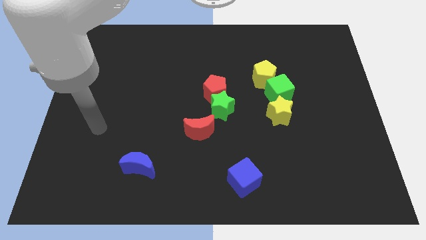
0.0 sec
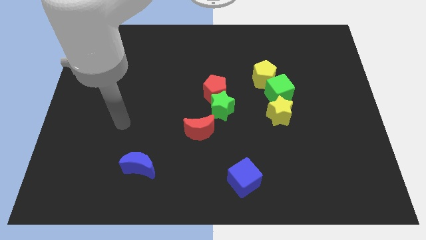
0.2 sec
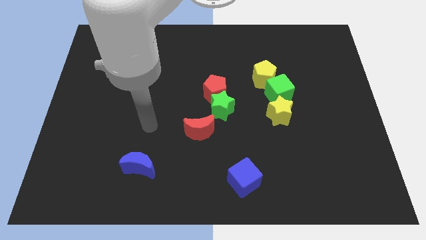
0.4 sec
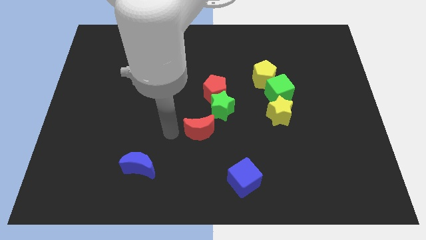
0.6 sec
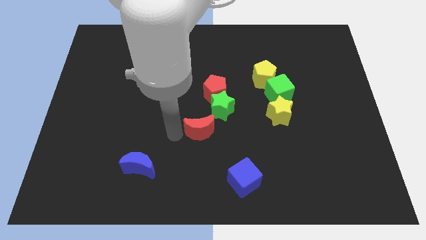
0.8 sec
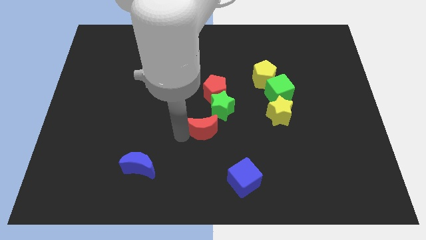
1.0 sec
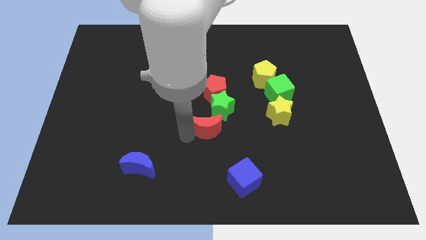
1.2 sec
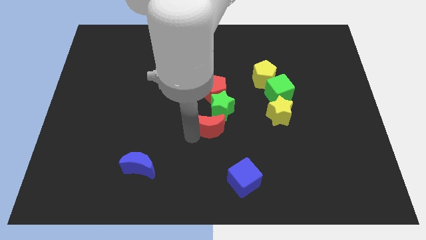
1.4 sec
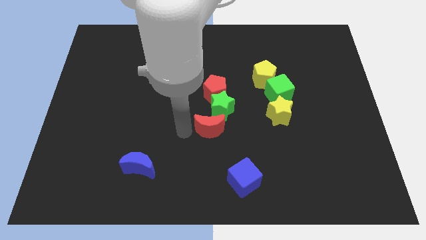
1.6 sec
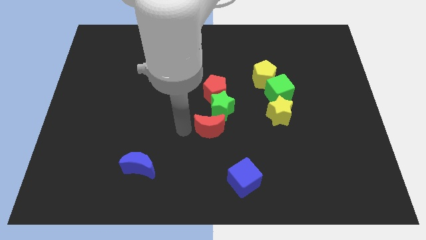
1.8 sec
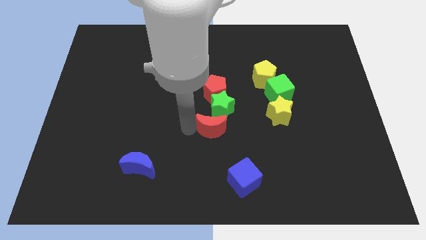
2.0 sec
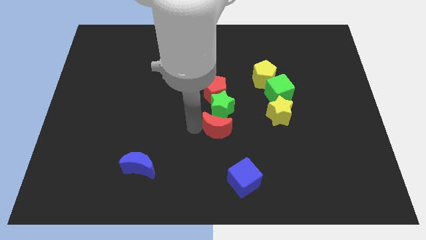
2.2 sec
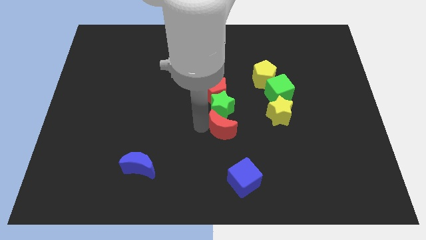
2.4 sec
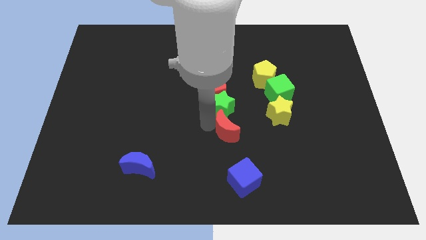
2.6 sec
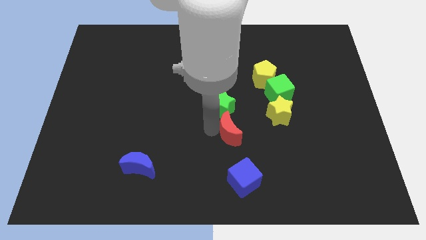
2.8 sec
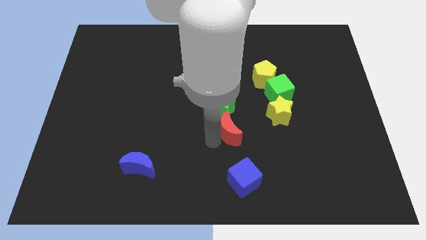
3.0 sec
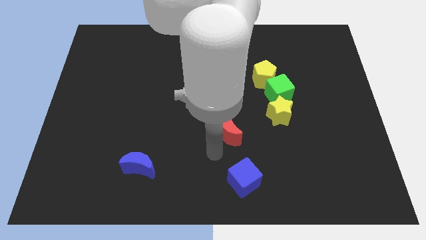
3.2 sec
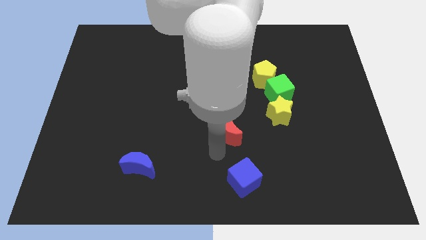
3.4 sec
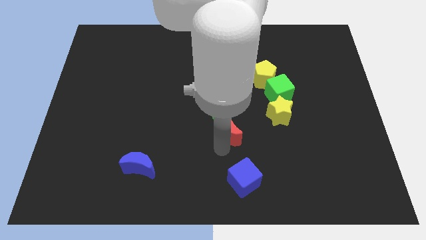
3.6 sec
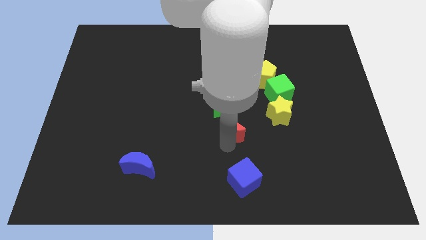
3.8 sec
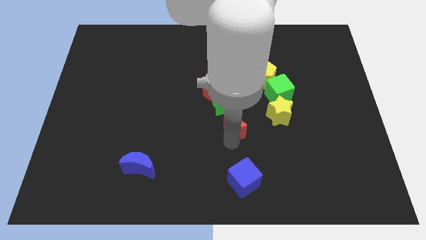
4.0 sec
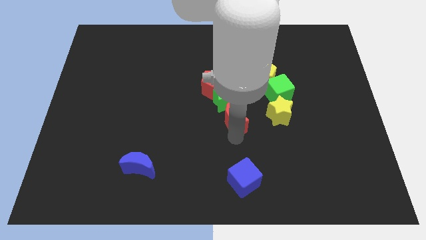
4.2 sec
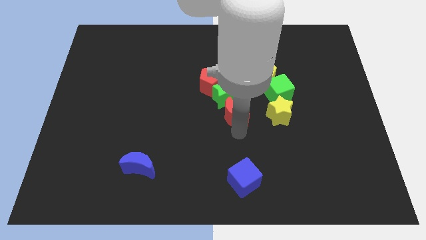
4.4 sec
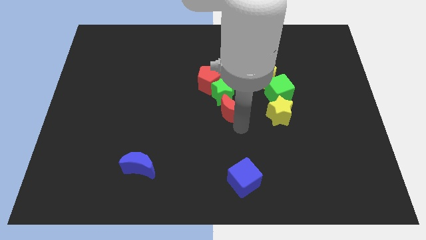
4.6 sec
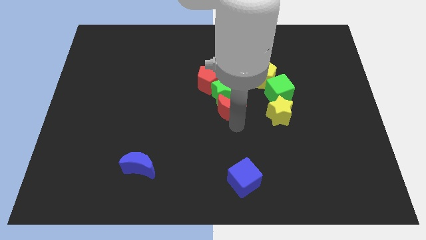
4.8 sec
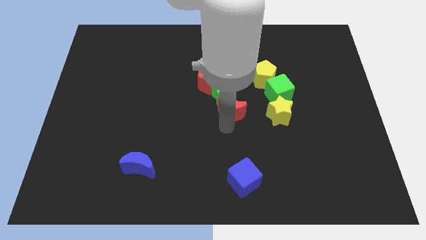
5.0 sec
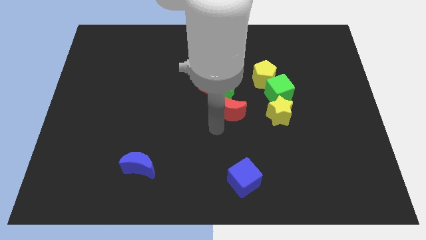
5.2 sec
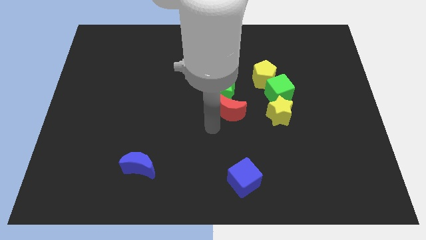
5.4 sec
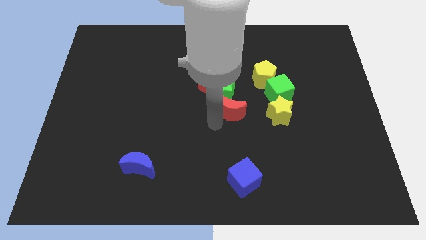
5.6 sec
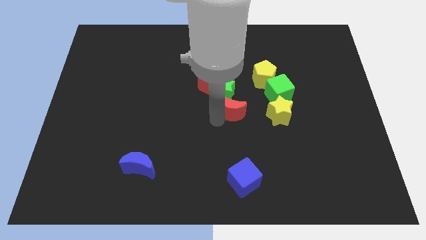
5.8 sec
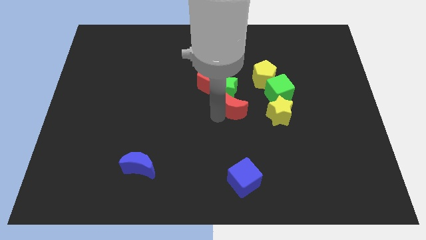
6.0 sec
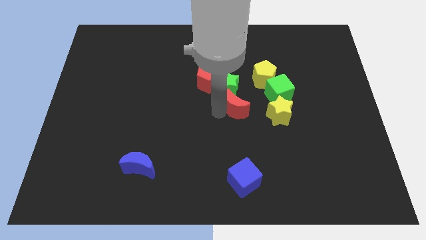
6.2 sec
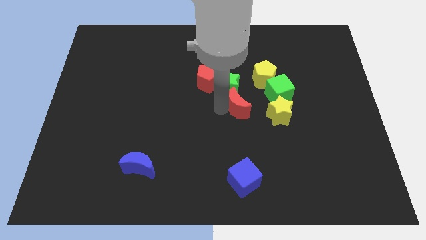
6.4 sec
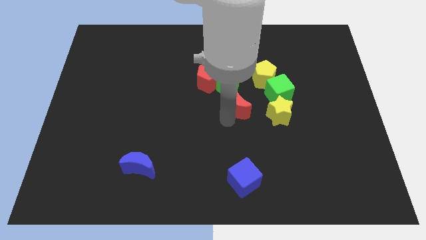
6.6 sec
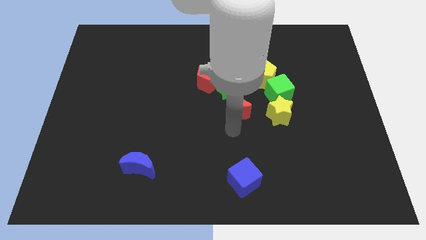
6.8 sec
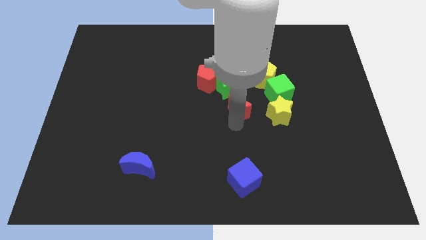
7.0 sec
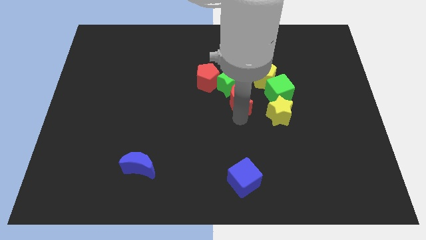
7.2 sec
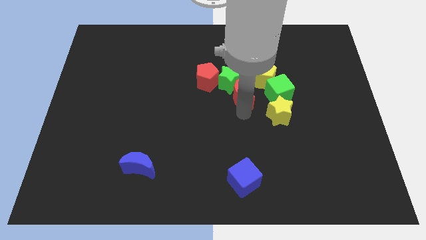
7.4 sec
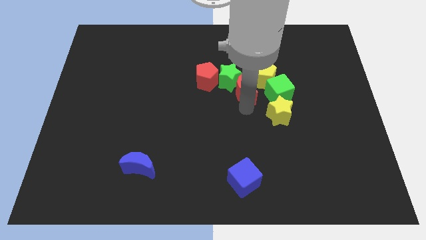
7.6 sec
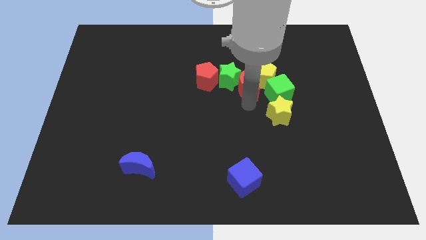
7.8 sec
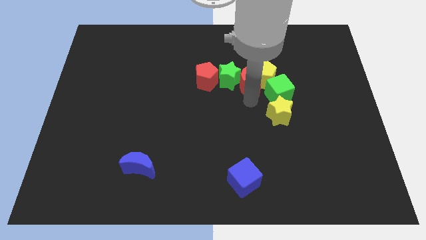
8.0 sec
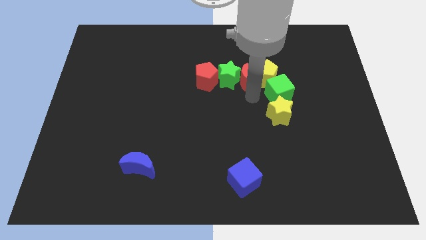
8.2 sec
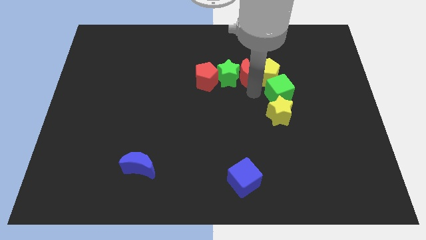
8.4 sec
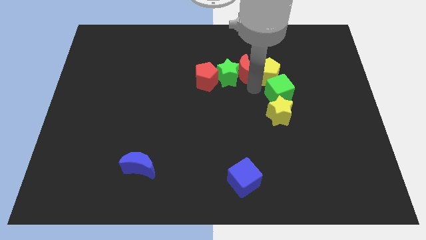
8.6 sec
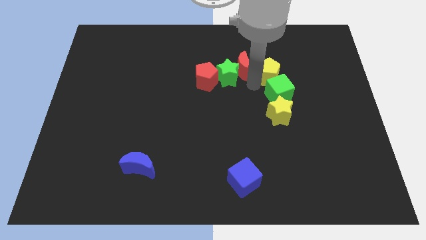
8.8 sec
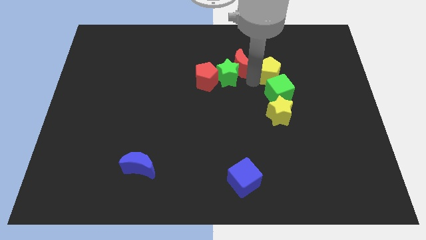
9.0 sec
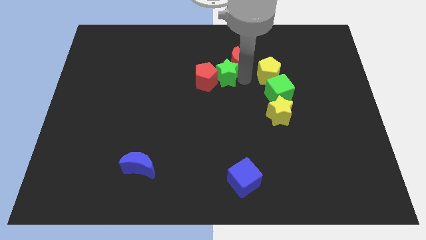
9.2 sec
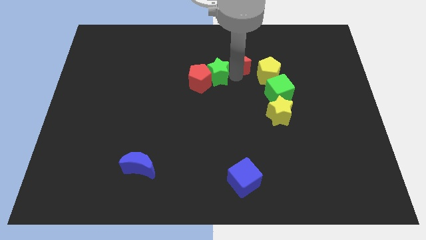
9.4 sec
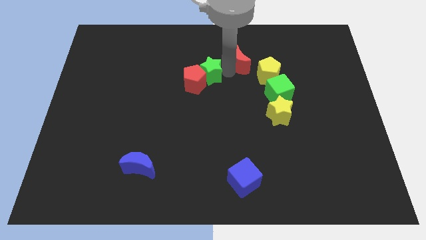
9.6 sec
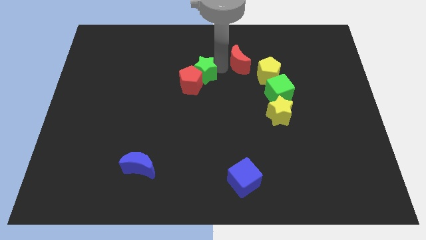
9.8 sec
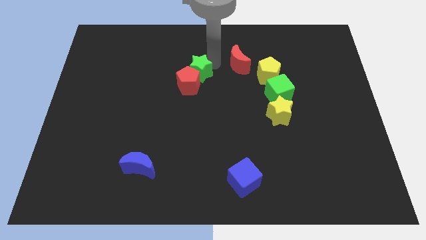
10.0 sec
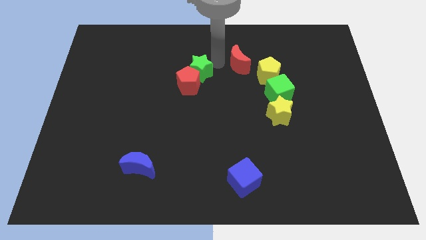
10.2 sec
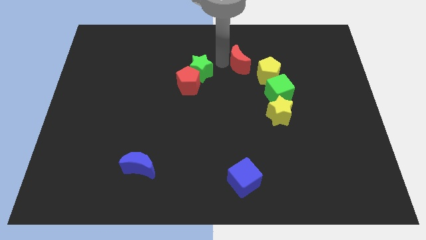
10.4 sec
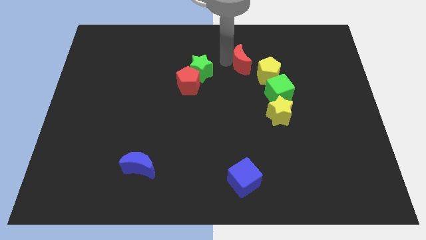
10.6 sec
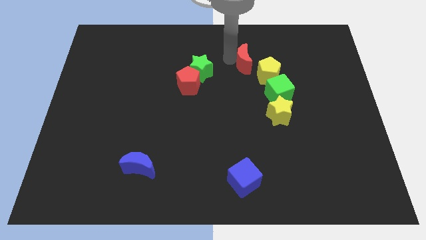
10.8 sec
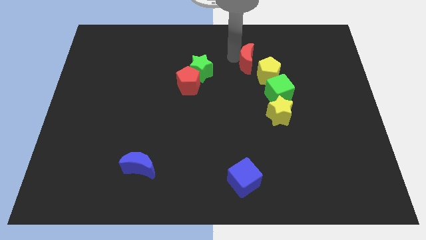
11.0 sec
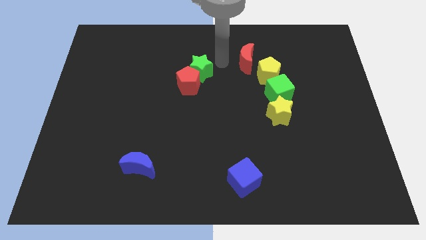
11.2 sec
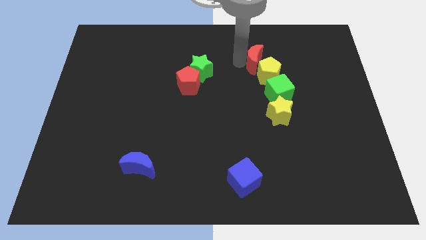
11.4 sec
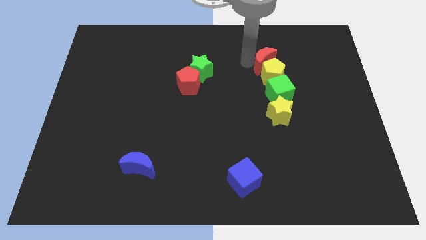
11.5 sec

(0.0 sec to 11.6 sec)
move the red moon diagonally up and to the right of the yellow pentagon

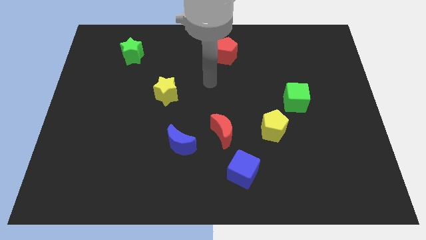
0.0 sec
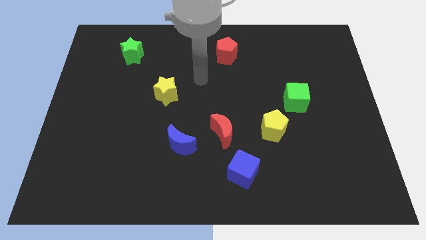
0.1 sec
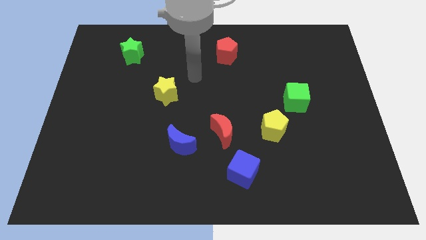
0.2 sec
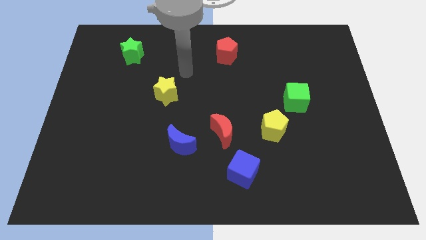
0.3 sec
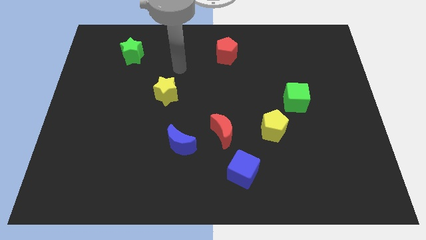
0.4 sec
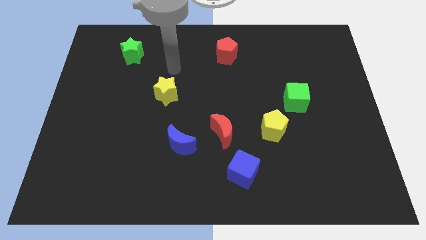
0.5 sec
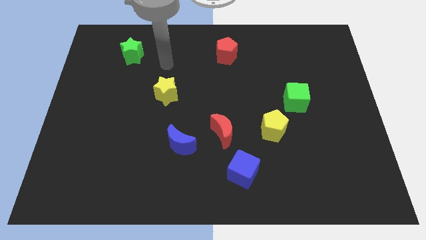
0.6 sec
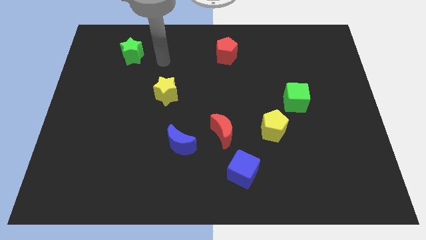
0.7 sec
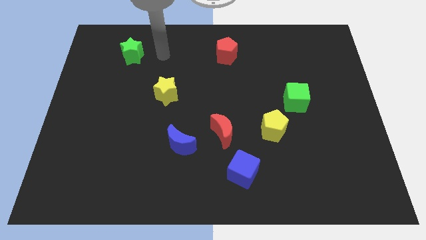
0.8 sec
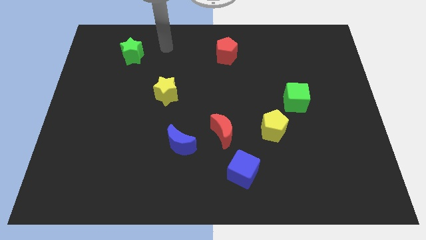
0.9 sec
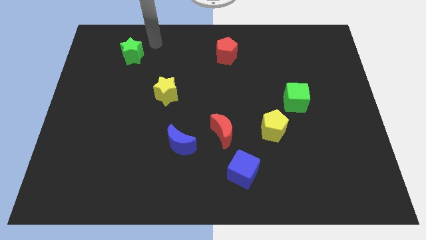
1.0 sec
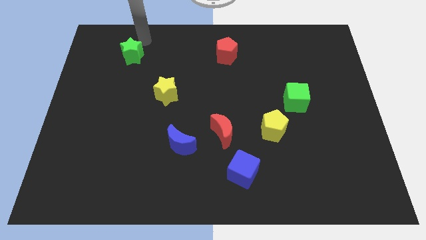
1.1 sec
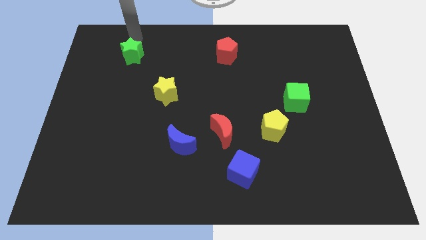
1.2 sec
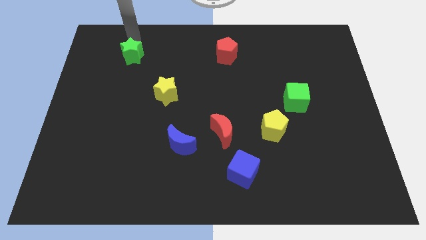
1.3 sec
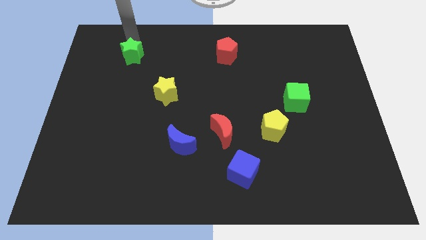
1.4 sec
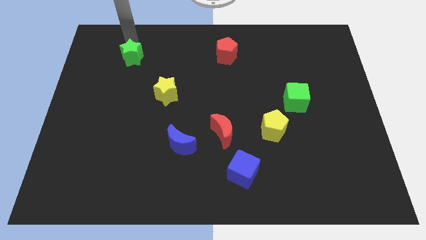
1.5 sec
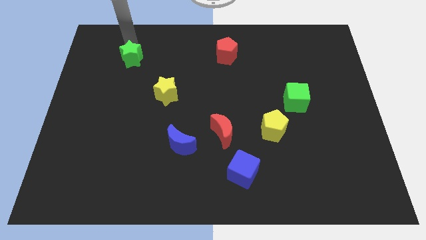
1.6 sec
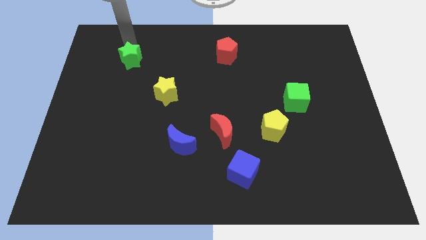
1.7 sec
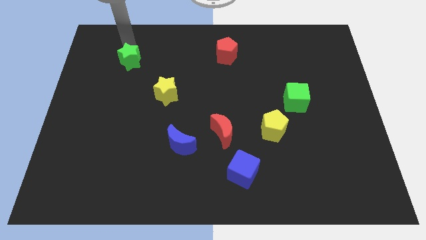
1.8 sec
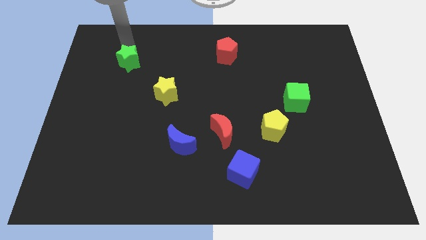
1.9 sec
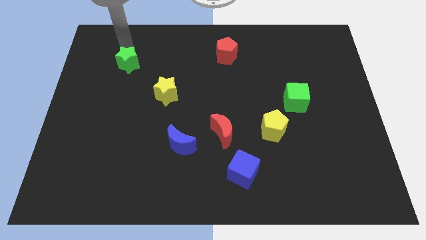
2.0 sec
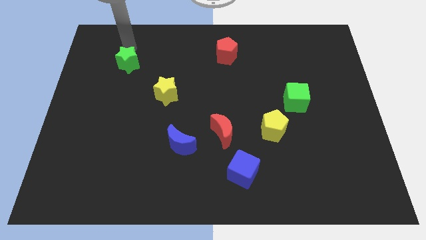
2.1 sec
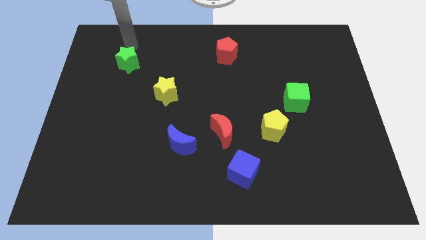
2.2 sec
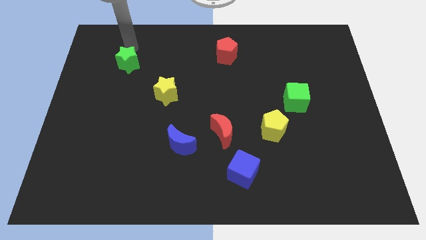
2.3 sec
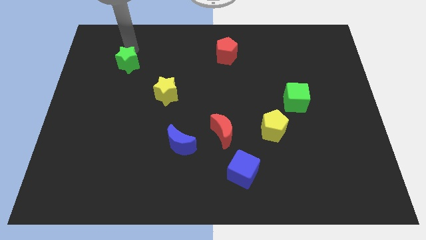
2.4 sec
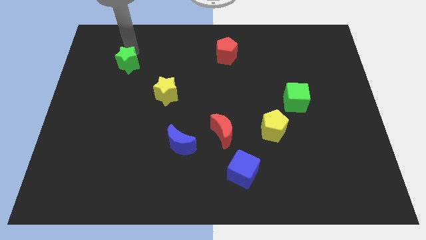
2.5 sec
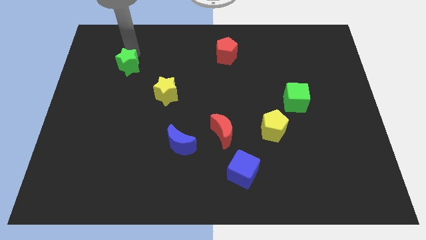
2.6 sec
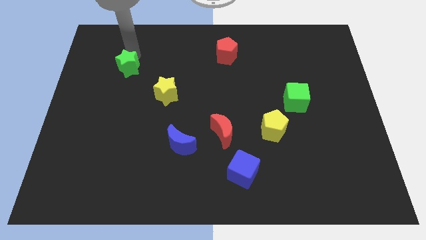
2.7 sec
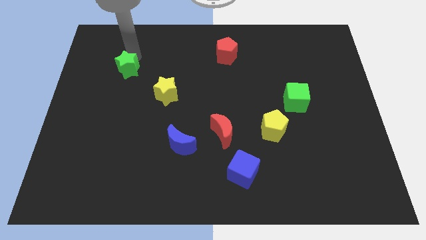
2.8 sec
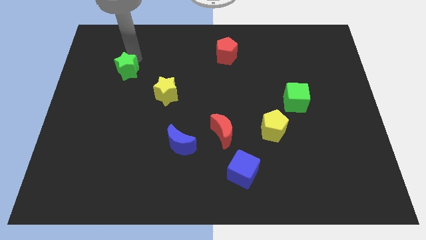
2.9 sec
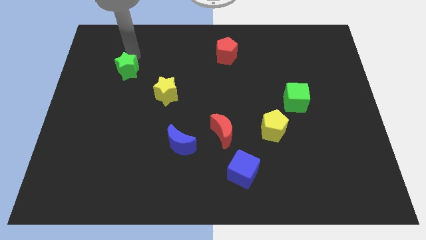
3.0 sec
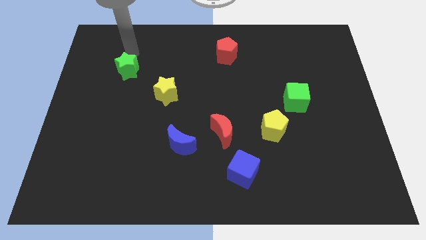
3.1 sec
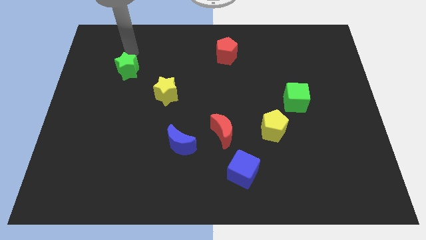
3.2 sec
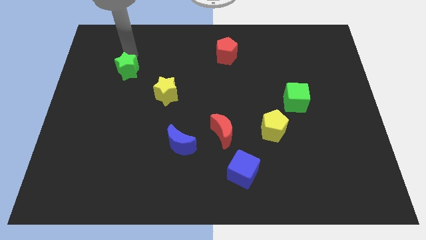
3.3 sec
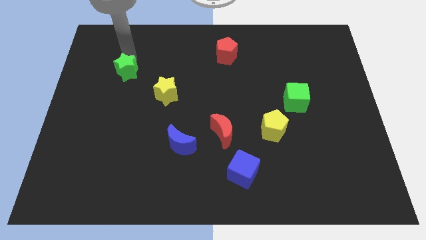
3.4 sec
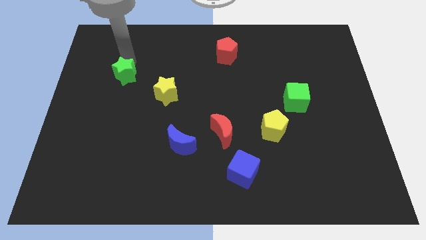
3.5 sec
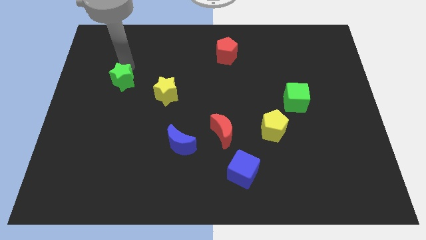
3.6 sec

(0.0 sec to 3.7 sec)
move the green star to the left of the yellow star
